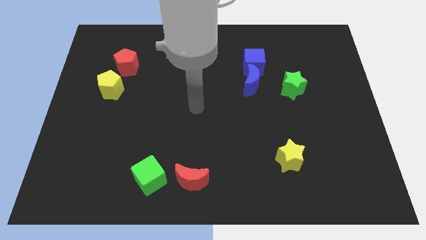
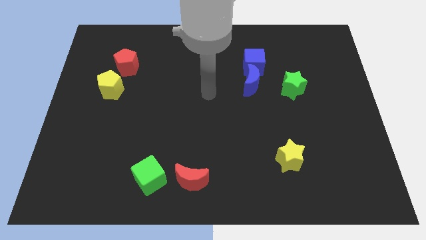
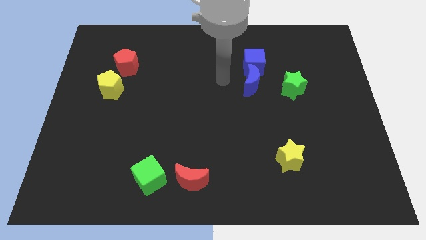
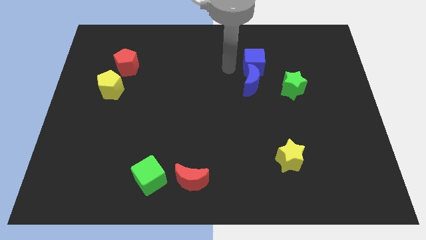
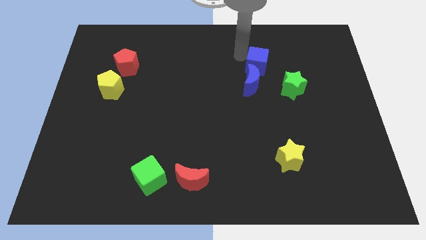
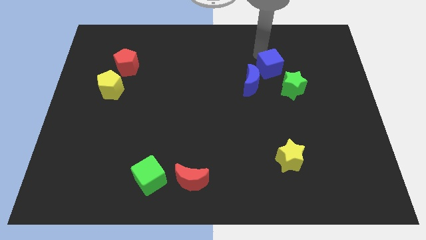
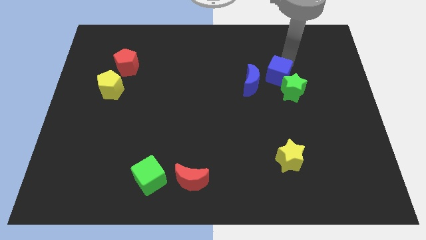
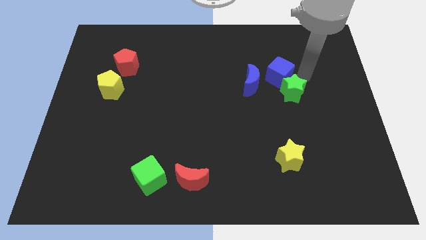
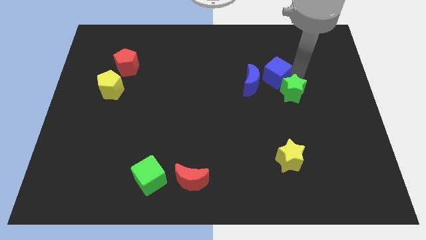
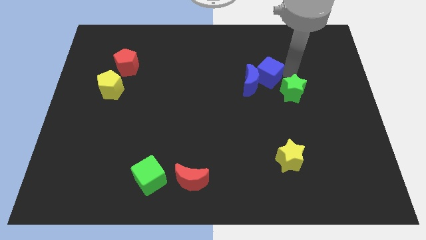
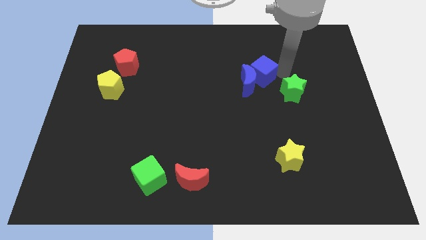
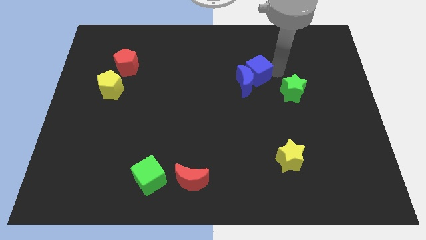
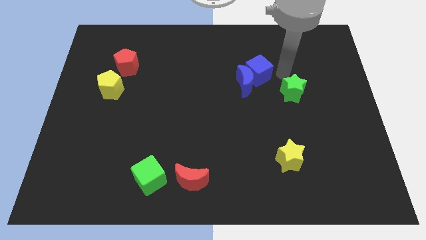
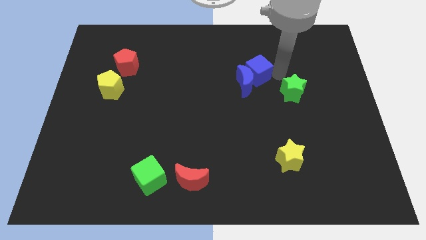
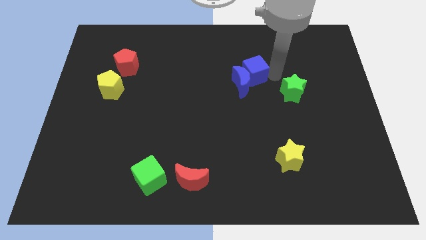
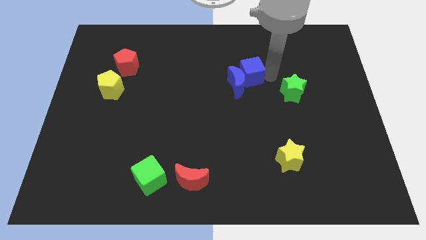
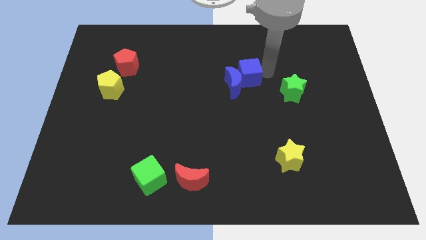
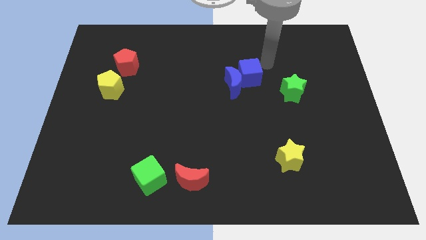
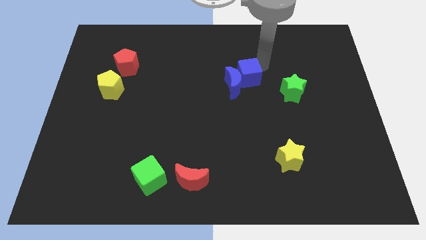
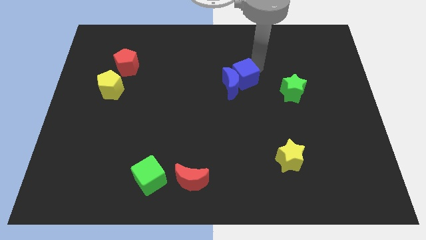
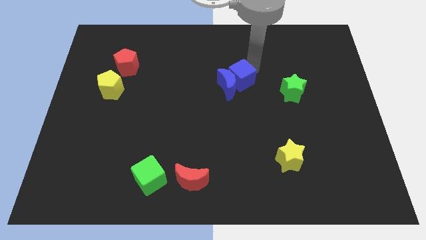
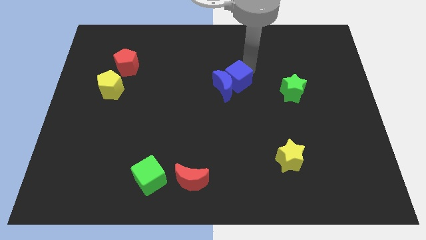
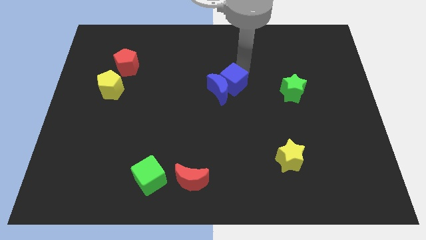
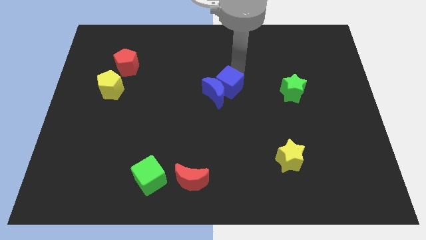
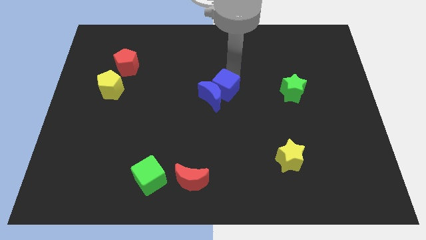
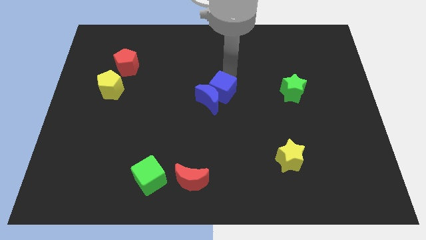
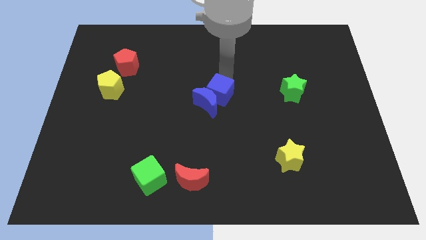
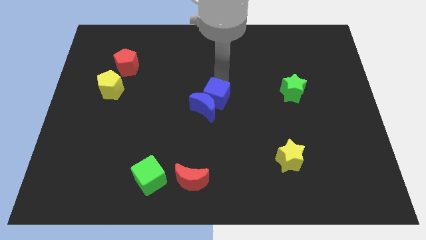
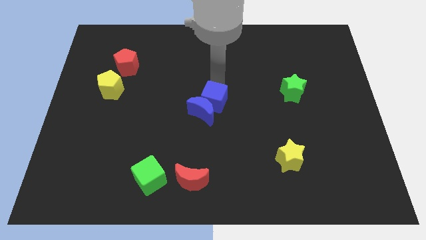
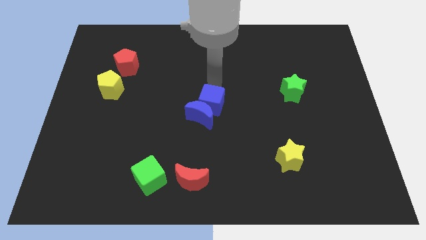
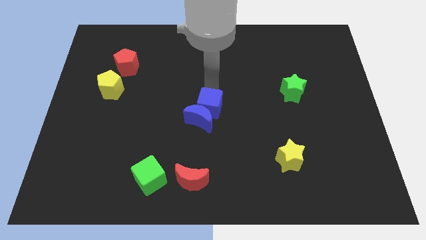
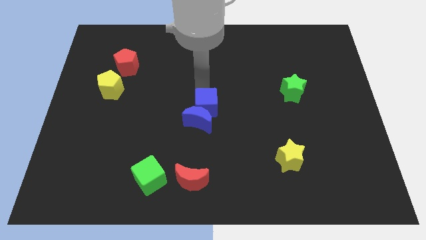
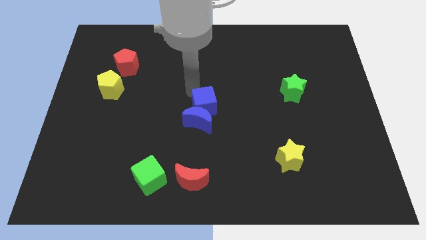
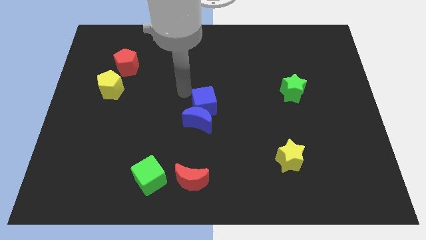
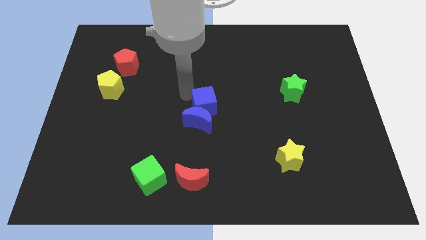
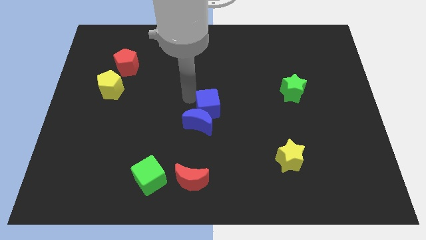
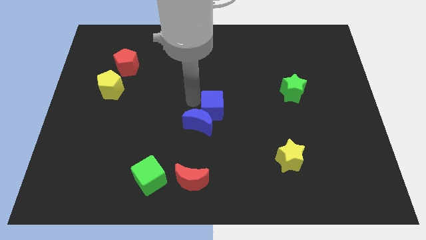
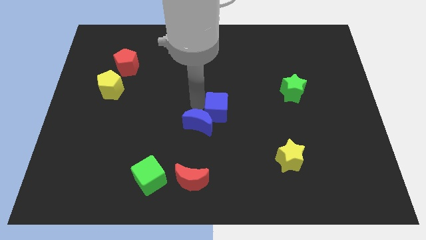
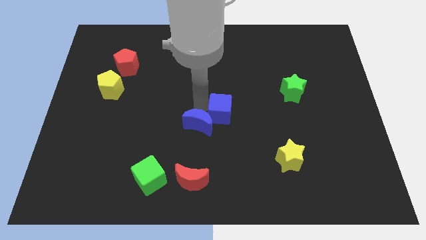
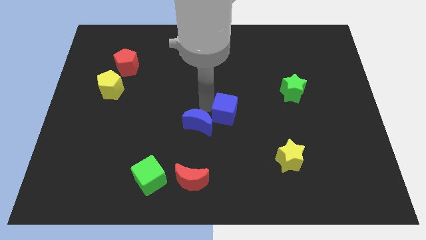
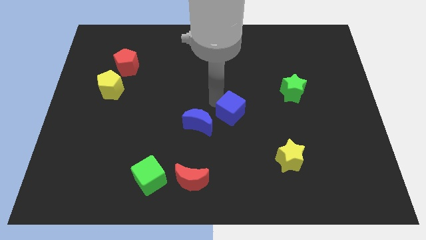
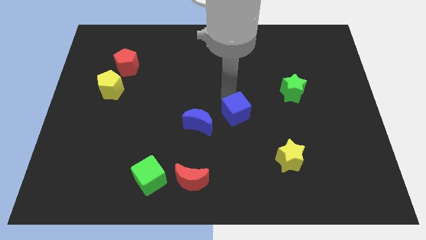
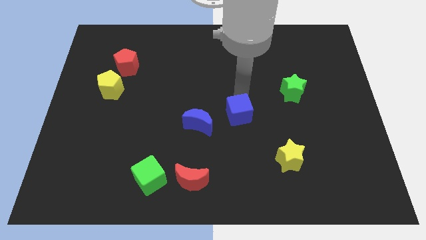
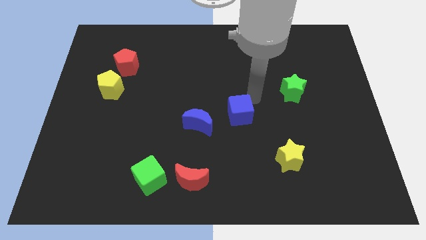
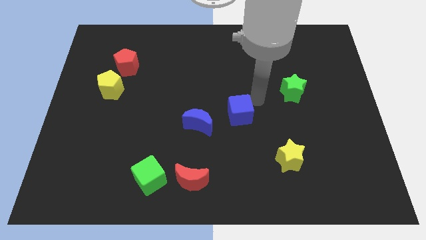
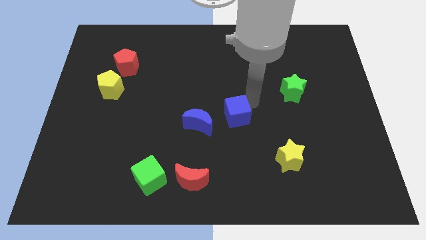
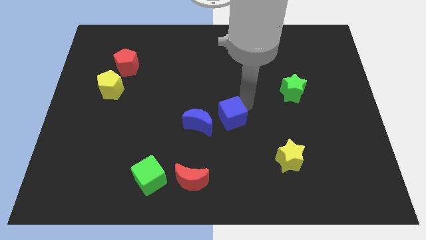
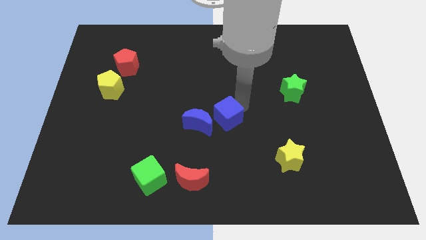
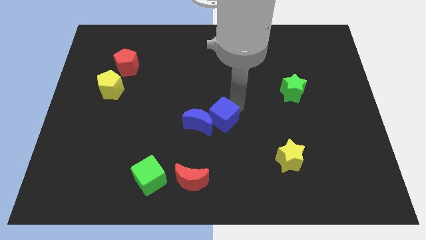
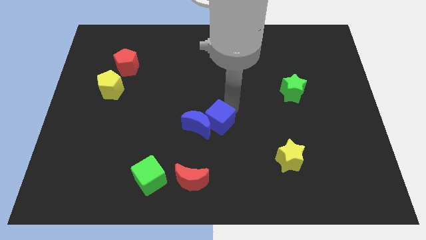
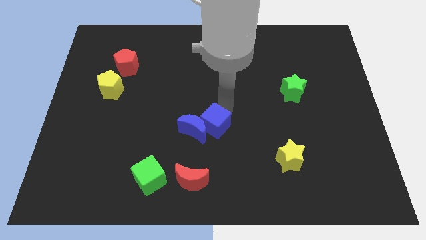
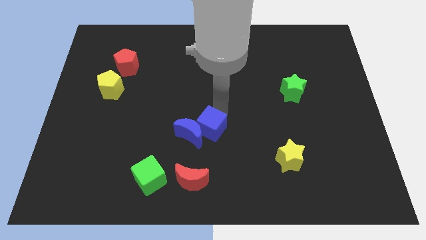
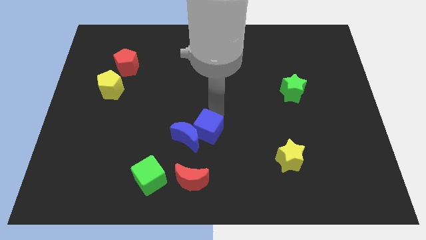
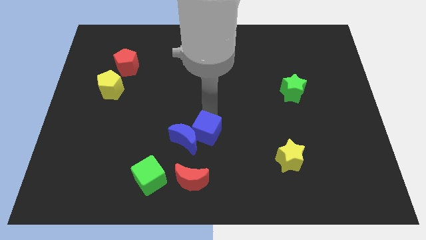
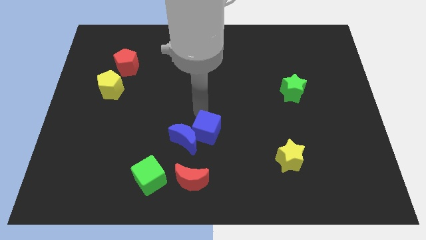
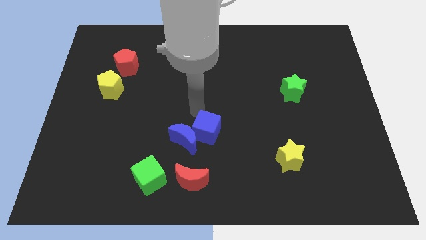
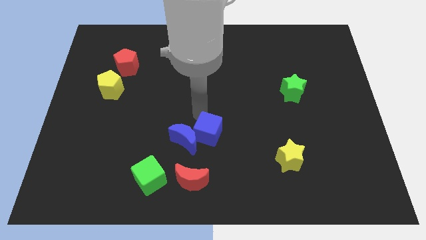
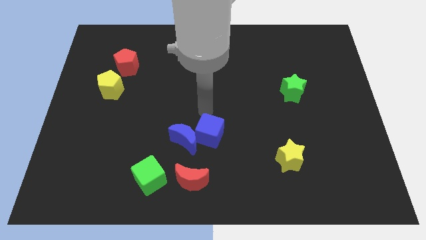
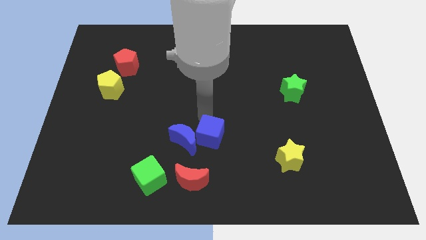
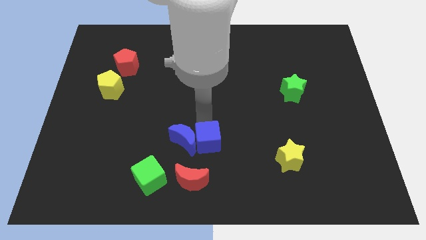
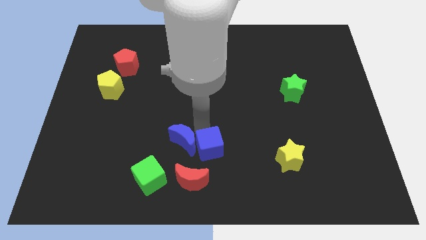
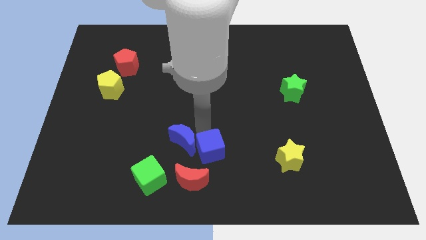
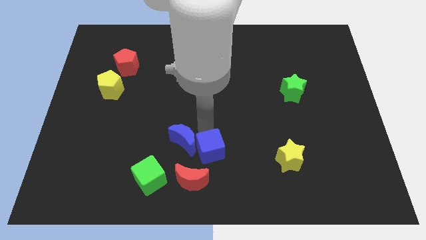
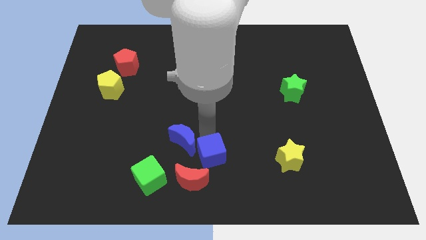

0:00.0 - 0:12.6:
move the blue cube to the bottom
